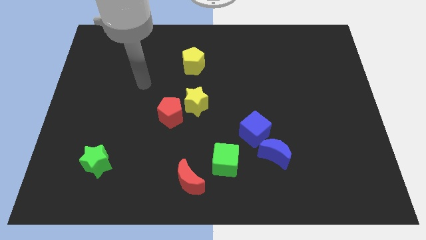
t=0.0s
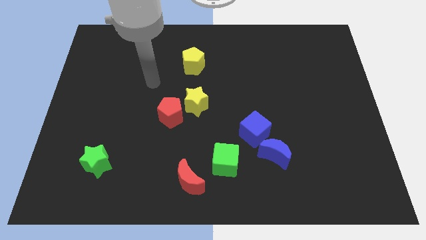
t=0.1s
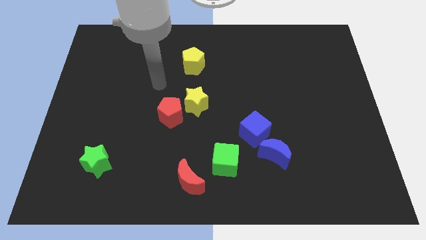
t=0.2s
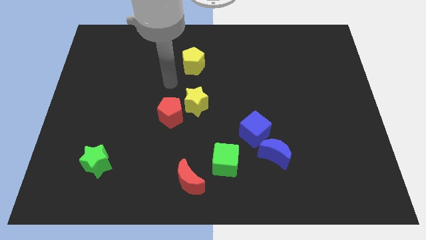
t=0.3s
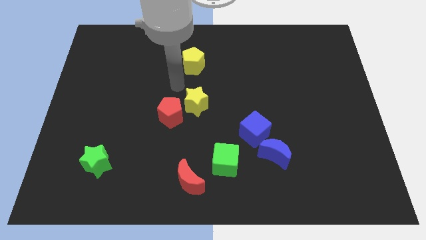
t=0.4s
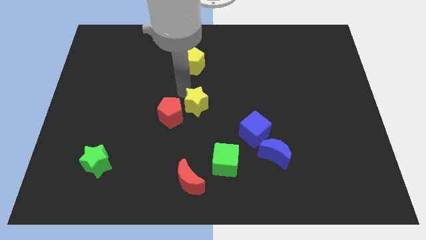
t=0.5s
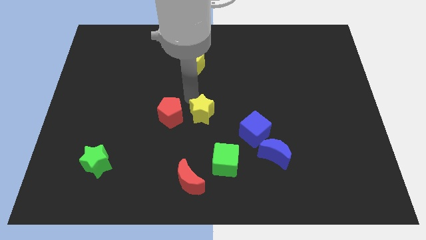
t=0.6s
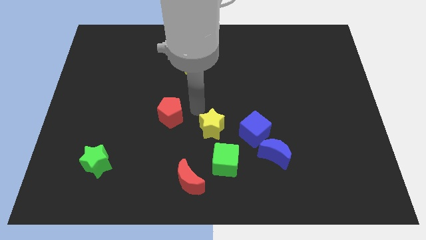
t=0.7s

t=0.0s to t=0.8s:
separate the red pentagon from the yellow star

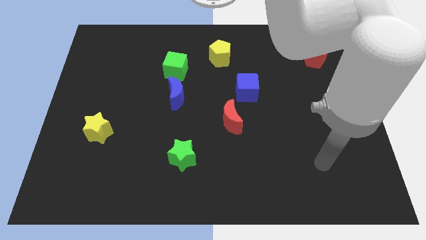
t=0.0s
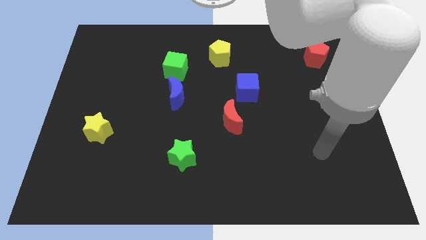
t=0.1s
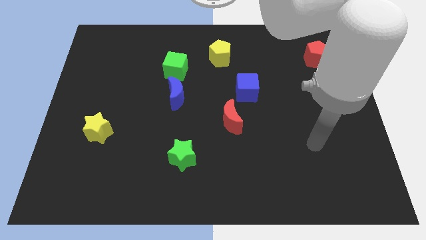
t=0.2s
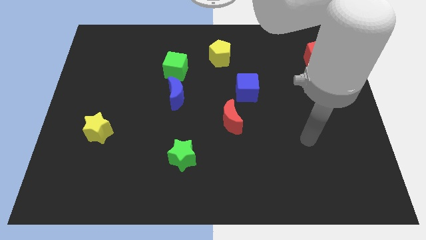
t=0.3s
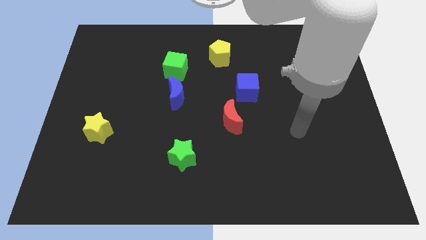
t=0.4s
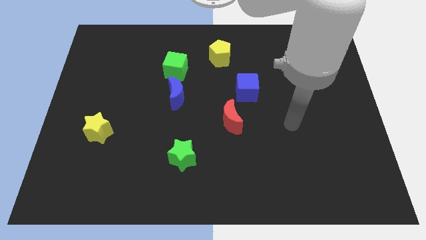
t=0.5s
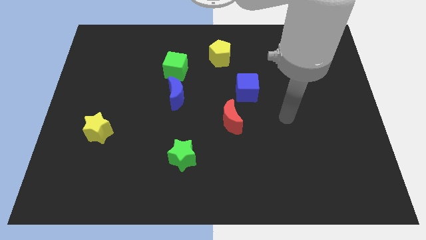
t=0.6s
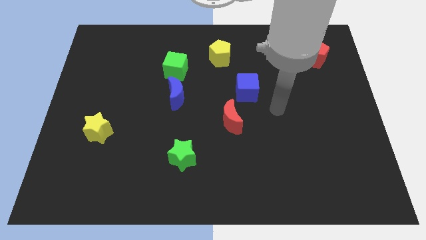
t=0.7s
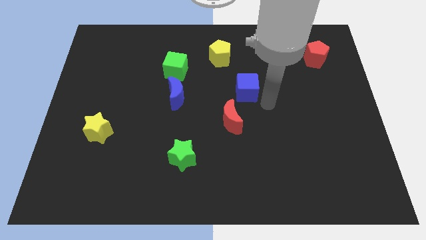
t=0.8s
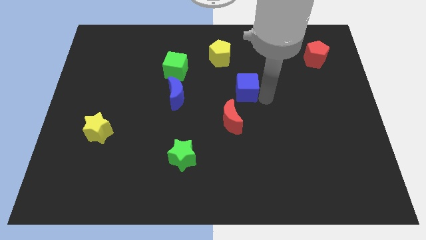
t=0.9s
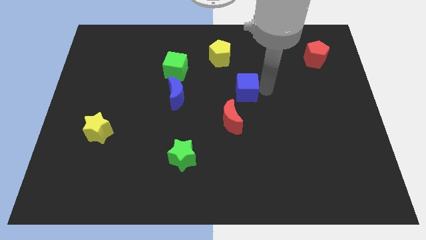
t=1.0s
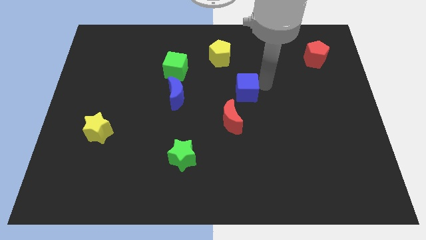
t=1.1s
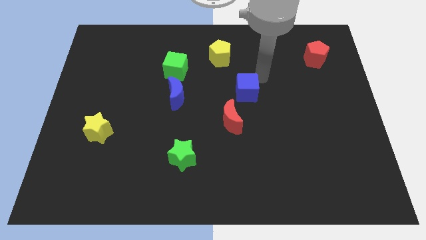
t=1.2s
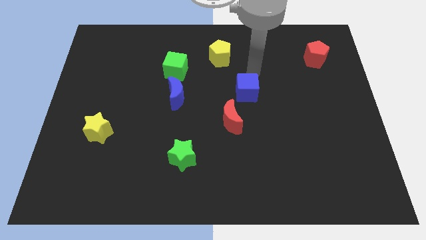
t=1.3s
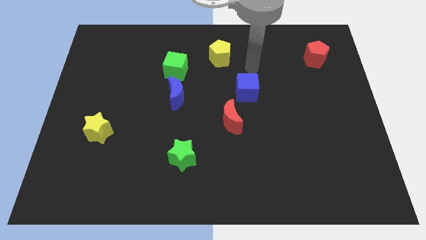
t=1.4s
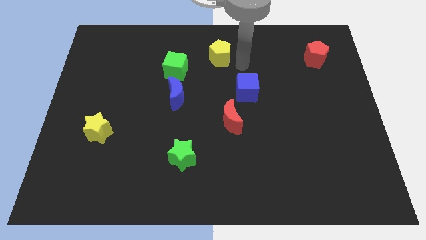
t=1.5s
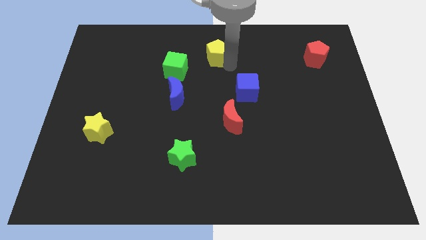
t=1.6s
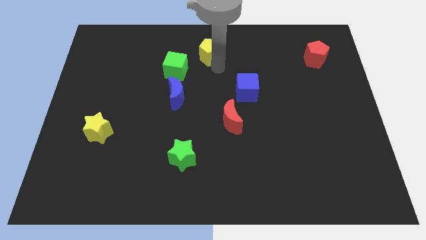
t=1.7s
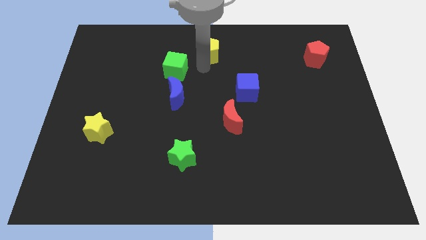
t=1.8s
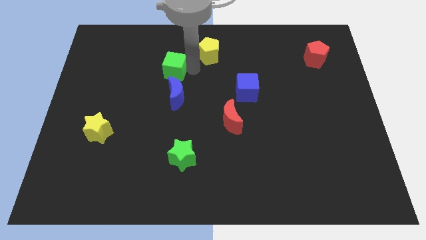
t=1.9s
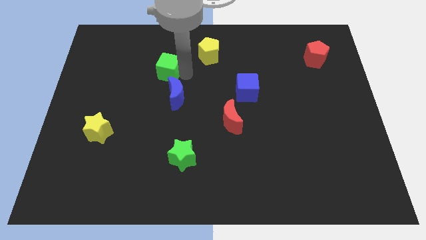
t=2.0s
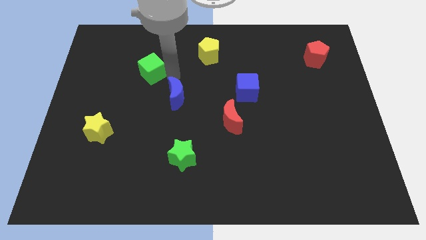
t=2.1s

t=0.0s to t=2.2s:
separate the blue moon from the green cube

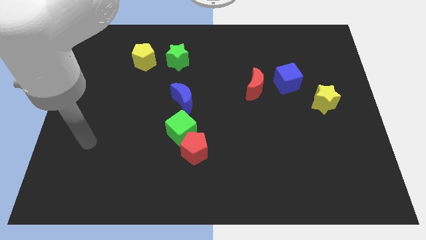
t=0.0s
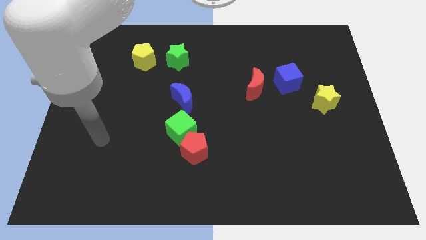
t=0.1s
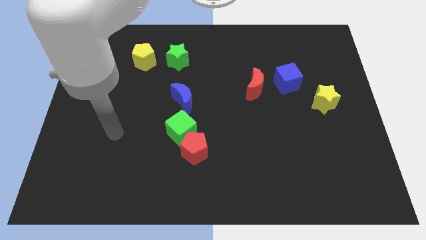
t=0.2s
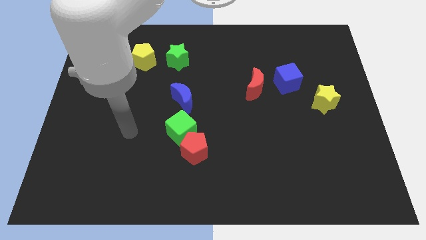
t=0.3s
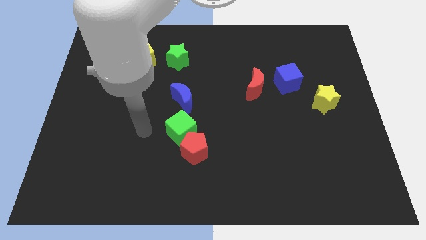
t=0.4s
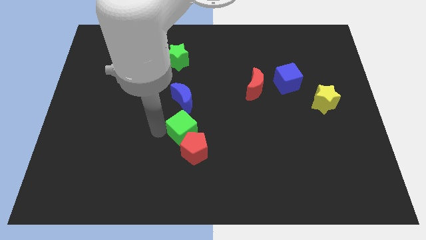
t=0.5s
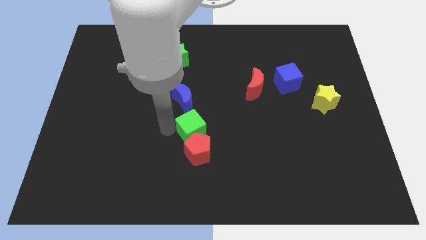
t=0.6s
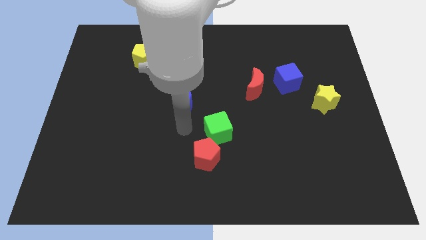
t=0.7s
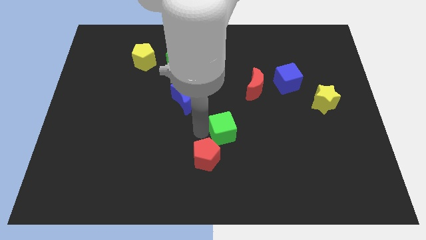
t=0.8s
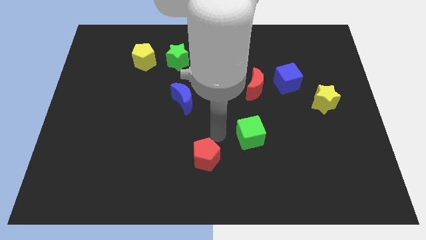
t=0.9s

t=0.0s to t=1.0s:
pull the red pentagon apart from the green cube

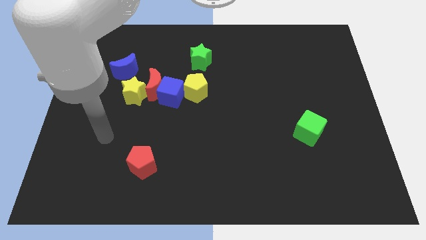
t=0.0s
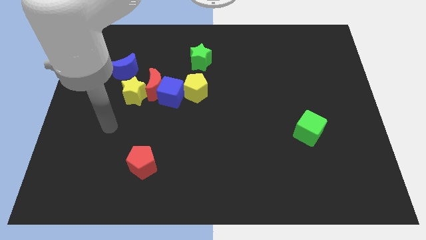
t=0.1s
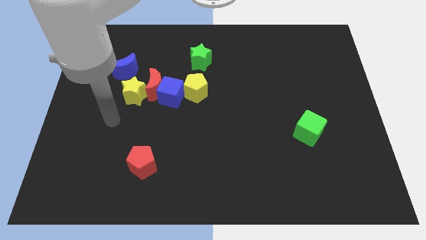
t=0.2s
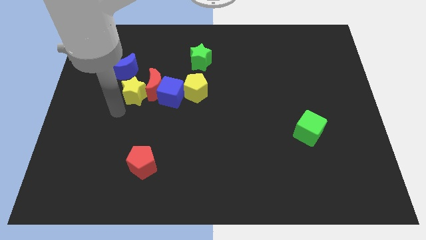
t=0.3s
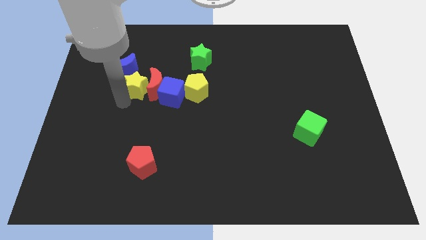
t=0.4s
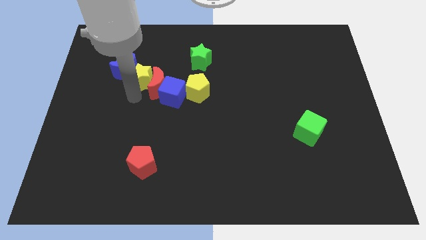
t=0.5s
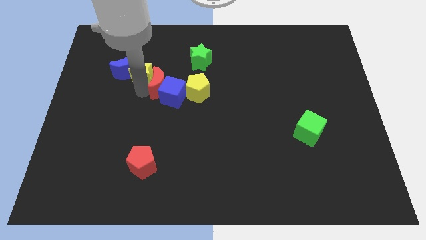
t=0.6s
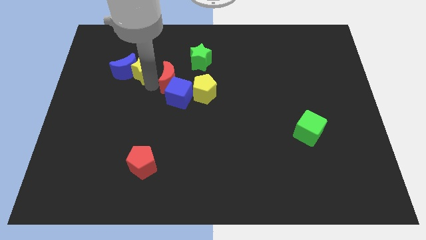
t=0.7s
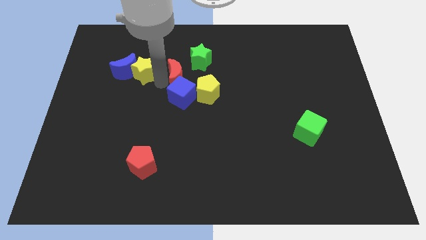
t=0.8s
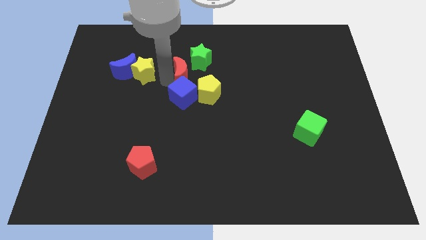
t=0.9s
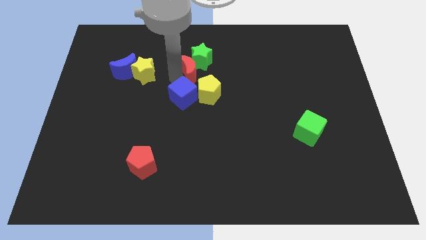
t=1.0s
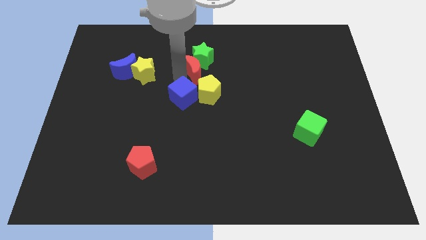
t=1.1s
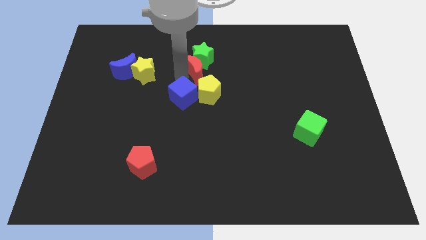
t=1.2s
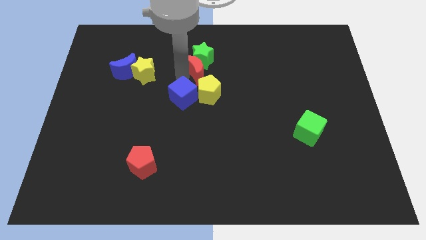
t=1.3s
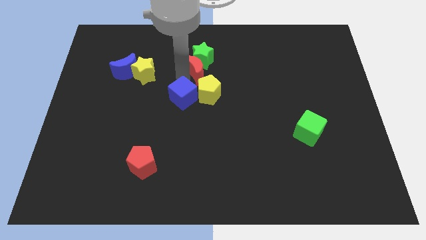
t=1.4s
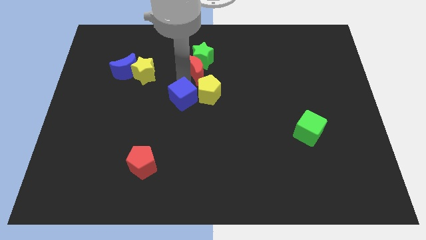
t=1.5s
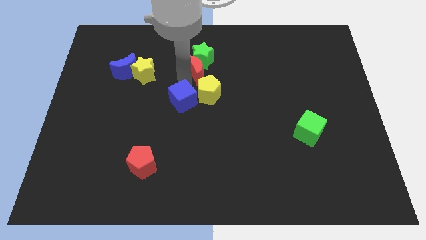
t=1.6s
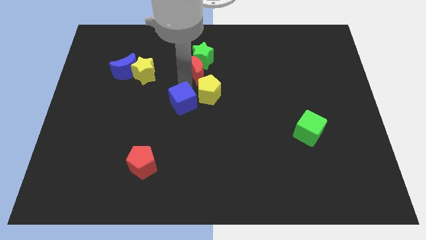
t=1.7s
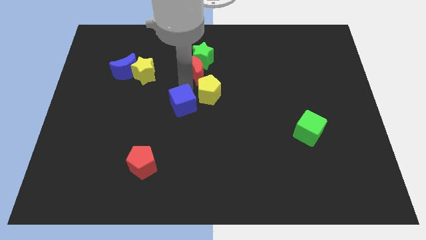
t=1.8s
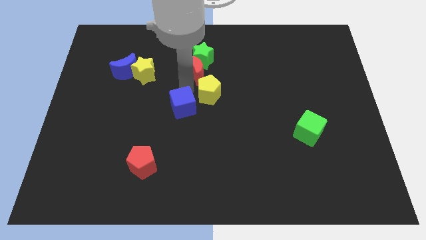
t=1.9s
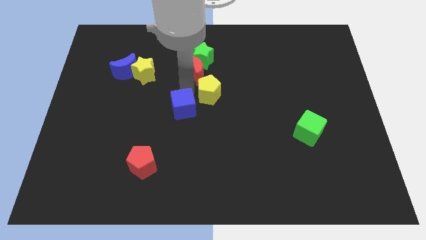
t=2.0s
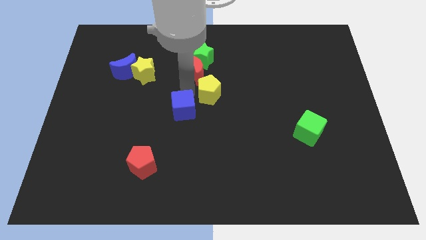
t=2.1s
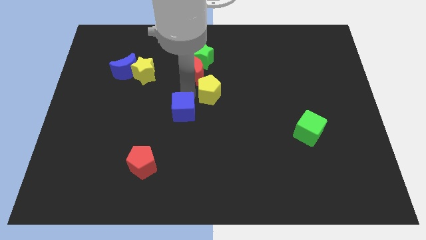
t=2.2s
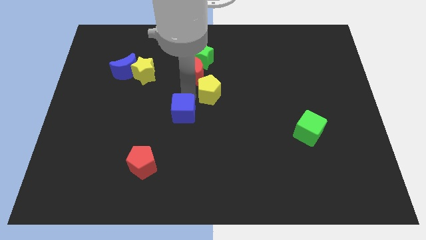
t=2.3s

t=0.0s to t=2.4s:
separate the blue cube from the red moon, yellow pentagon, and yellow star

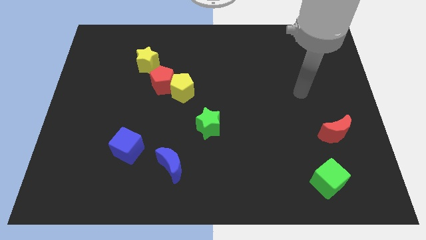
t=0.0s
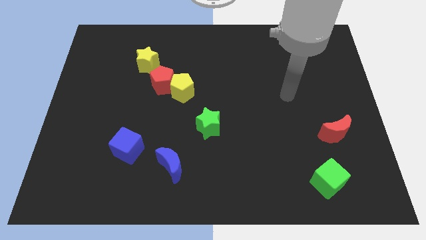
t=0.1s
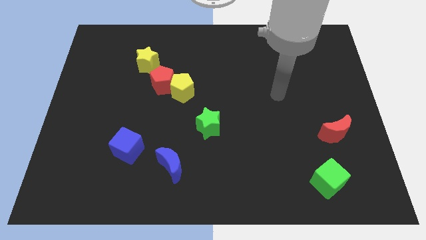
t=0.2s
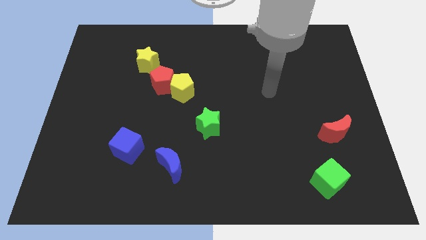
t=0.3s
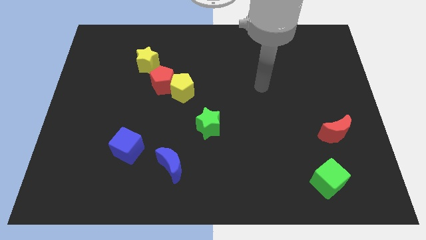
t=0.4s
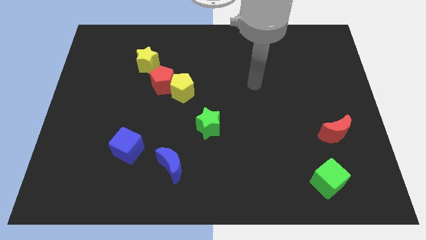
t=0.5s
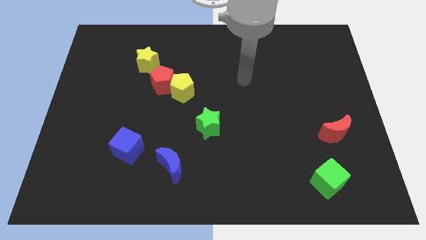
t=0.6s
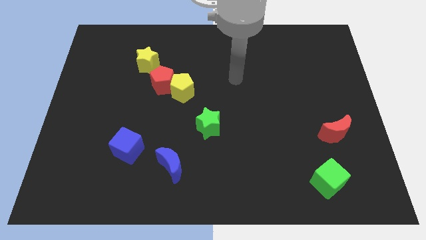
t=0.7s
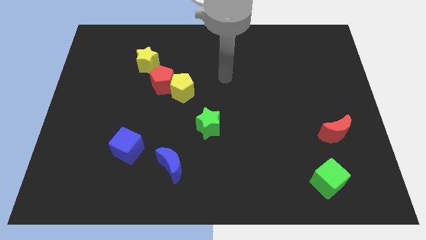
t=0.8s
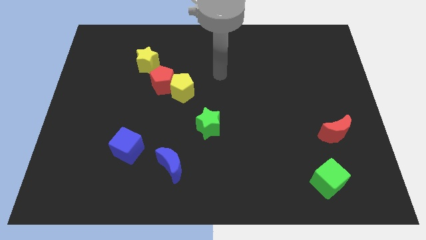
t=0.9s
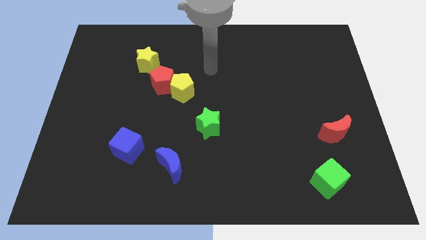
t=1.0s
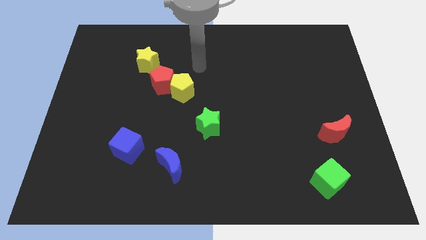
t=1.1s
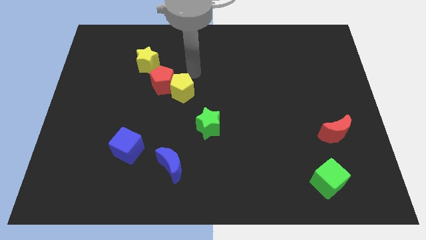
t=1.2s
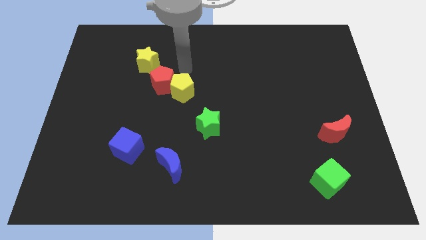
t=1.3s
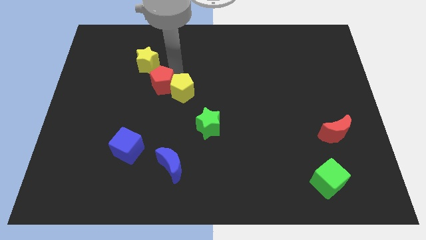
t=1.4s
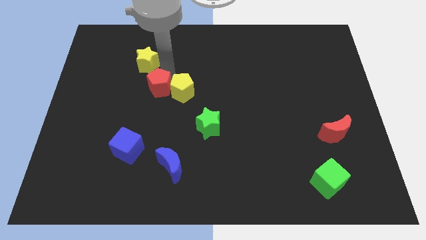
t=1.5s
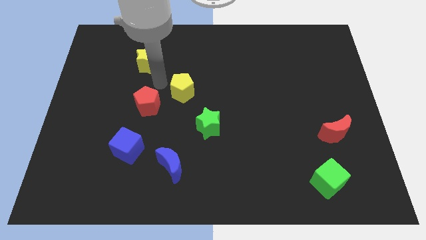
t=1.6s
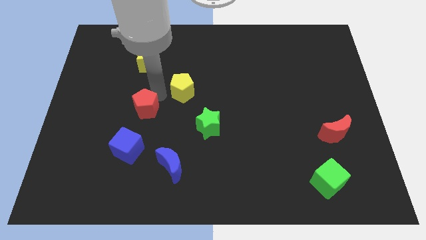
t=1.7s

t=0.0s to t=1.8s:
separate the yellow pentagon from the red pentagon

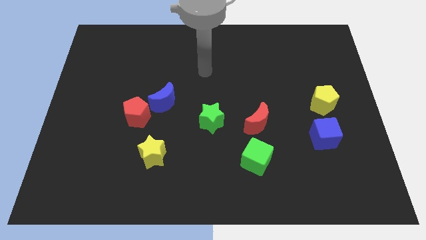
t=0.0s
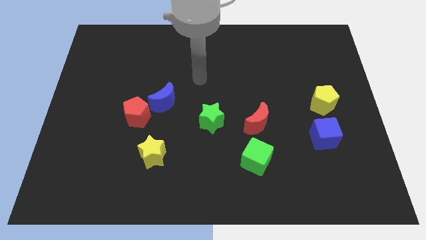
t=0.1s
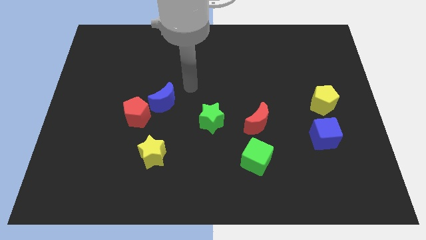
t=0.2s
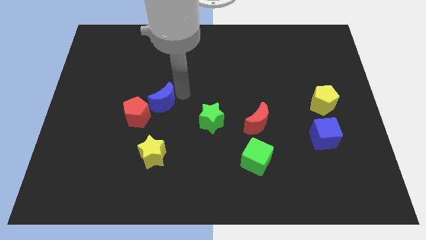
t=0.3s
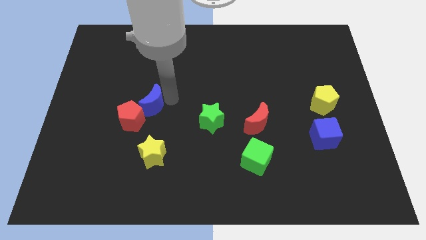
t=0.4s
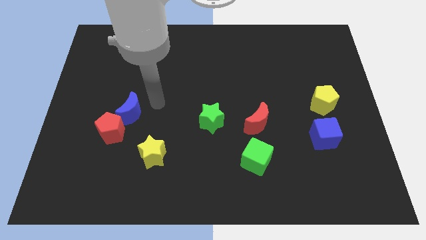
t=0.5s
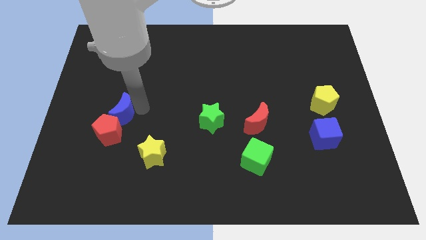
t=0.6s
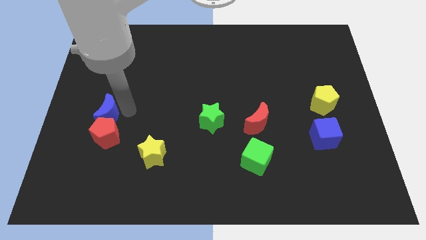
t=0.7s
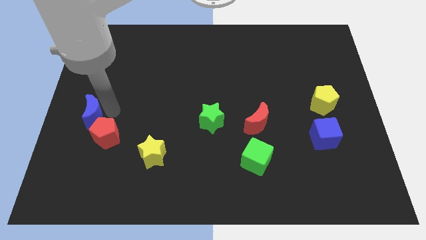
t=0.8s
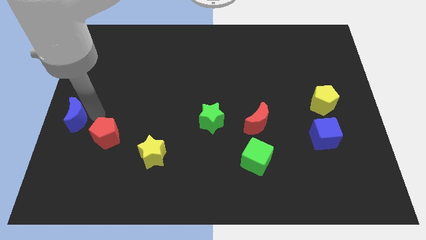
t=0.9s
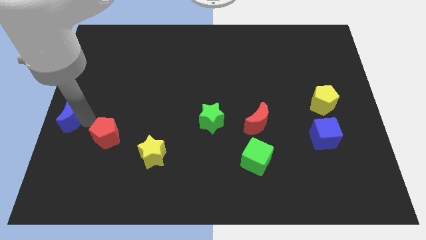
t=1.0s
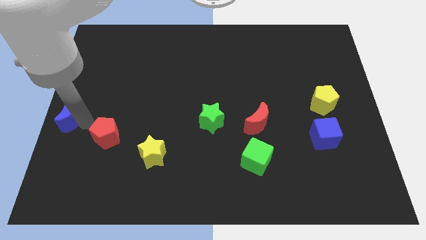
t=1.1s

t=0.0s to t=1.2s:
pull the red pentagon apart from the blue moon
